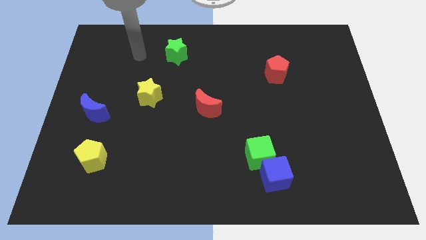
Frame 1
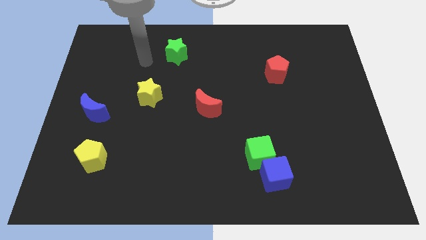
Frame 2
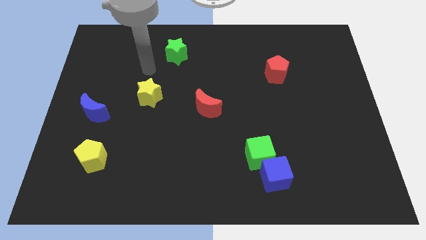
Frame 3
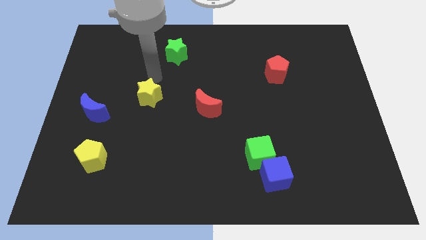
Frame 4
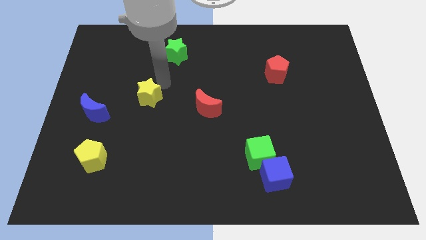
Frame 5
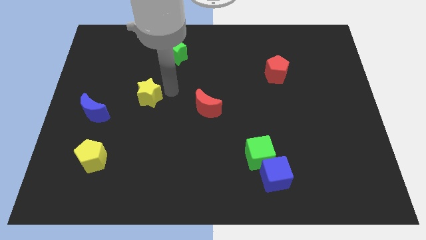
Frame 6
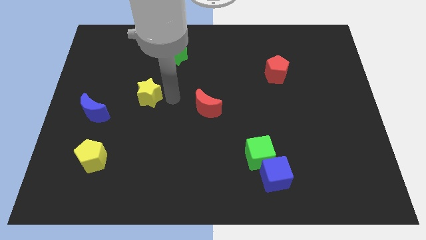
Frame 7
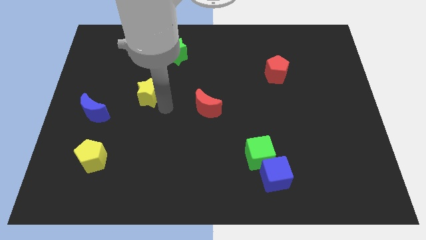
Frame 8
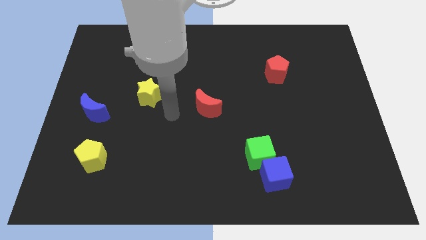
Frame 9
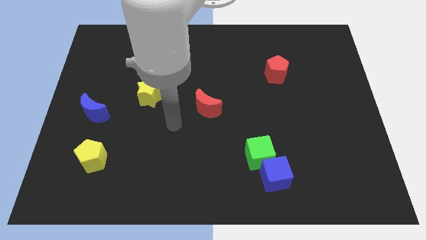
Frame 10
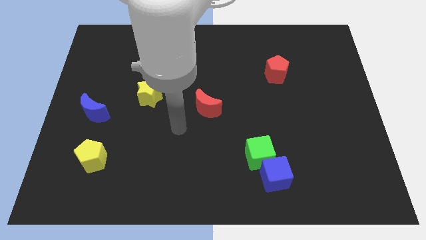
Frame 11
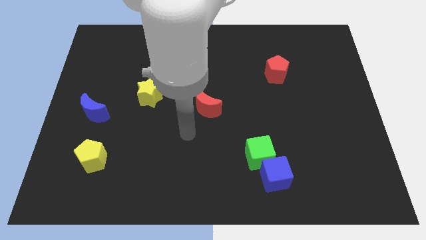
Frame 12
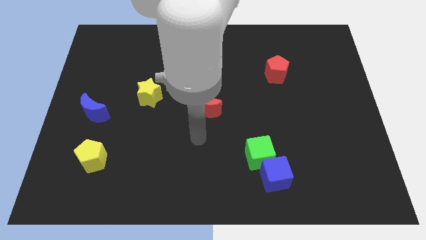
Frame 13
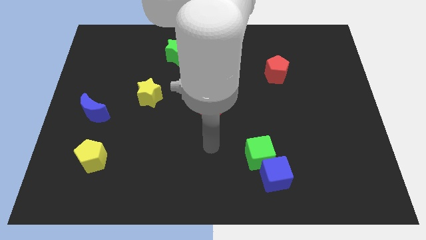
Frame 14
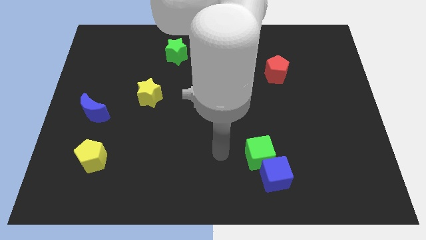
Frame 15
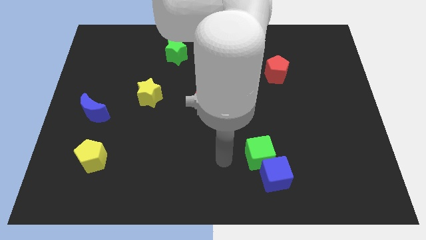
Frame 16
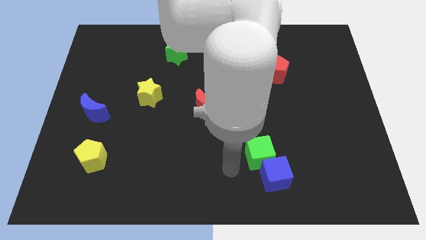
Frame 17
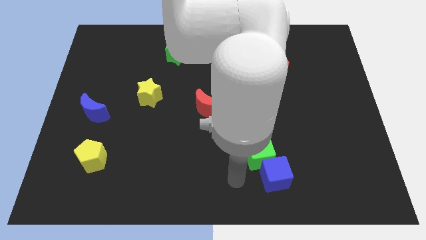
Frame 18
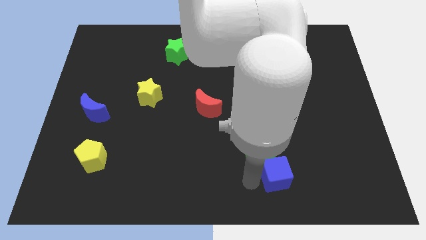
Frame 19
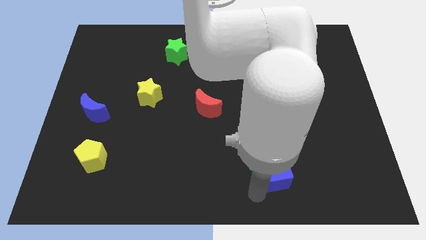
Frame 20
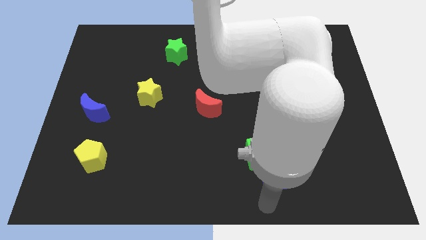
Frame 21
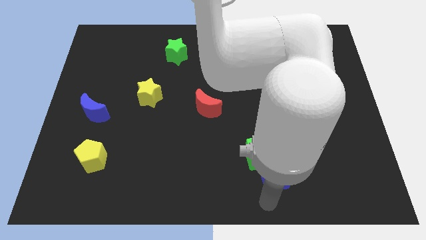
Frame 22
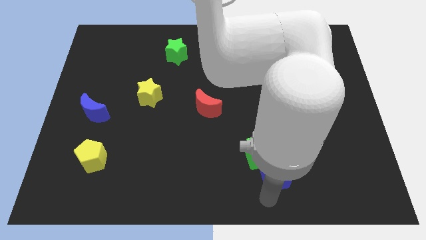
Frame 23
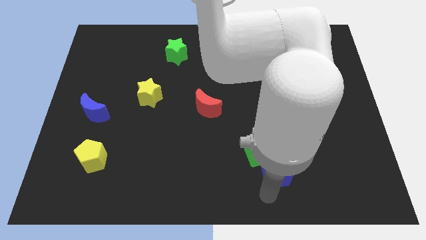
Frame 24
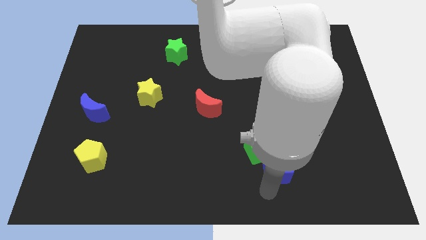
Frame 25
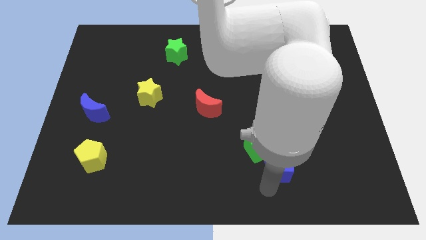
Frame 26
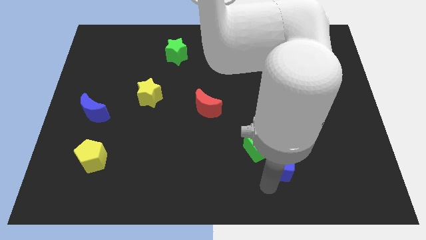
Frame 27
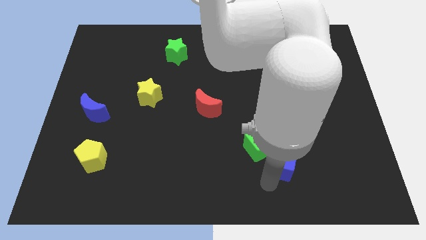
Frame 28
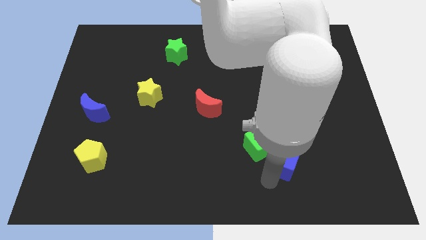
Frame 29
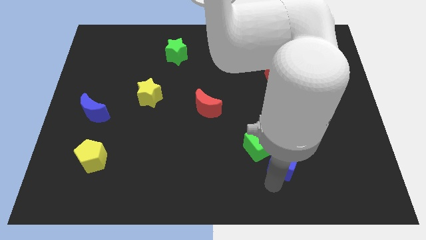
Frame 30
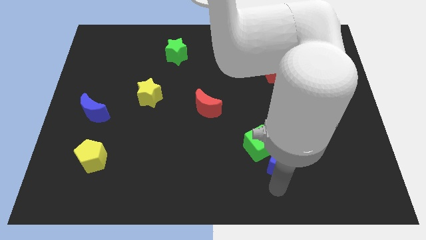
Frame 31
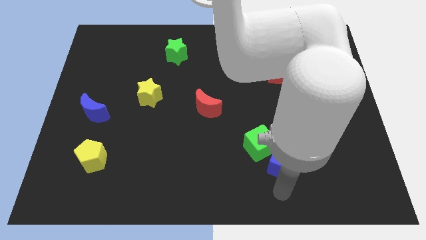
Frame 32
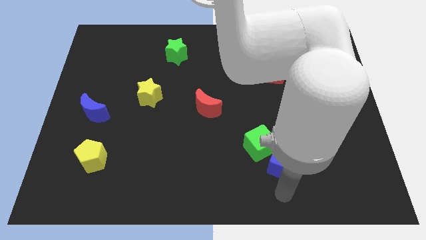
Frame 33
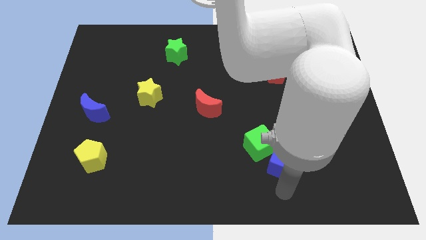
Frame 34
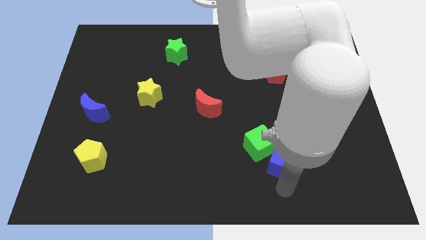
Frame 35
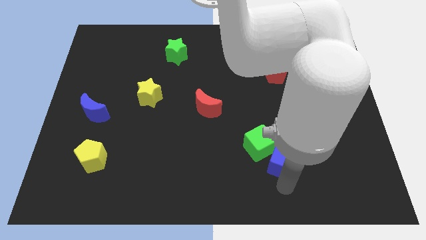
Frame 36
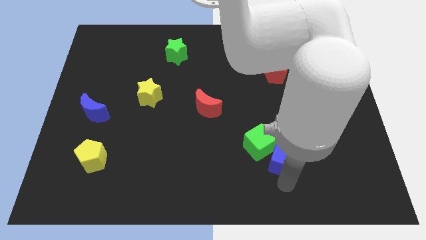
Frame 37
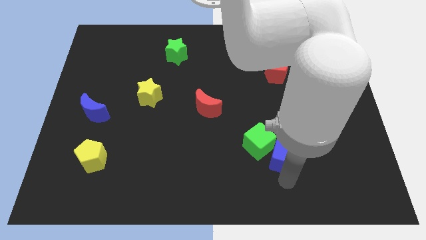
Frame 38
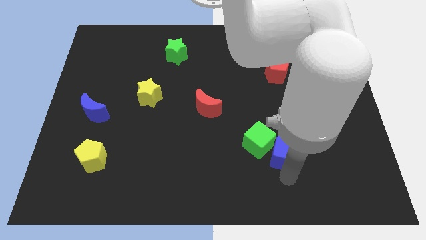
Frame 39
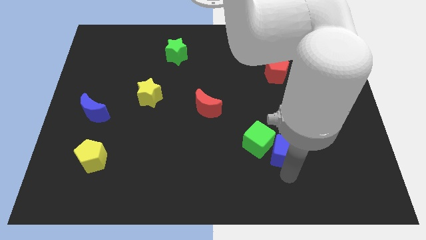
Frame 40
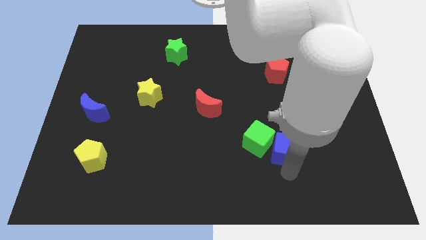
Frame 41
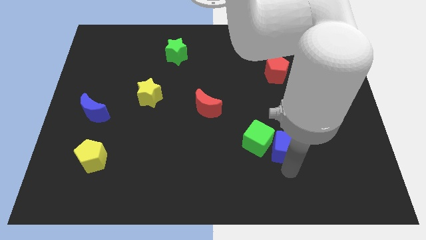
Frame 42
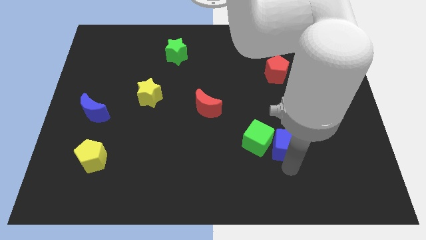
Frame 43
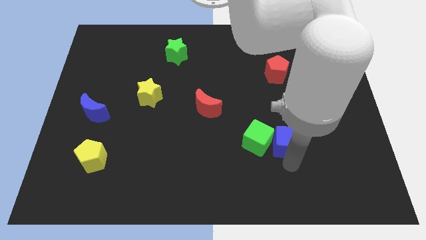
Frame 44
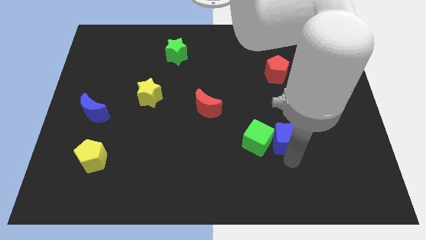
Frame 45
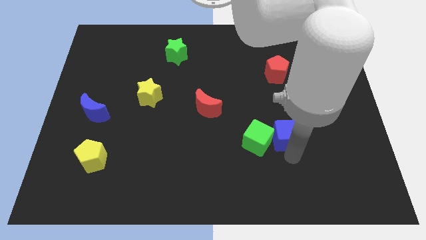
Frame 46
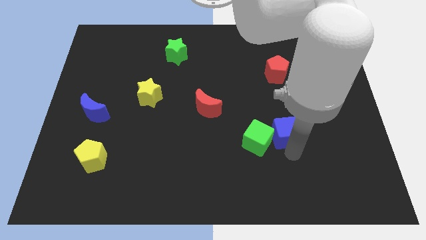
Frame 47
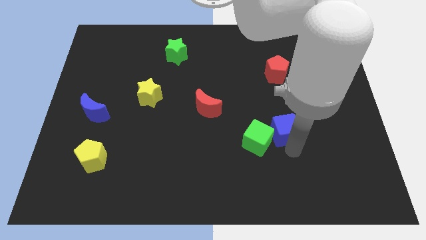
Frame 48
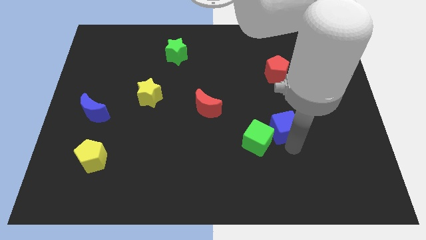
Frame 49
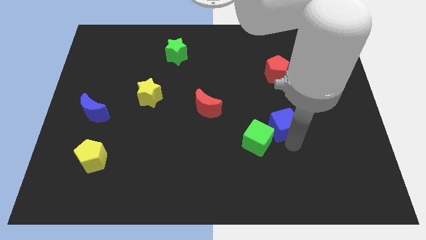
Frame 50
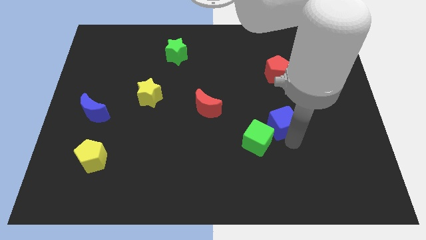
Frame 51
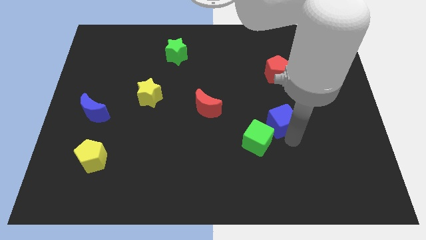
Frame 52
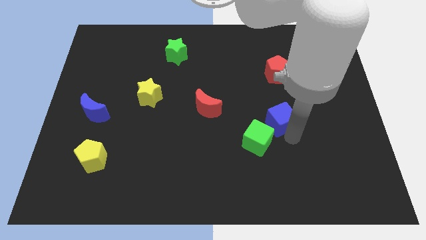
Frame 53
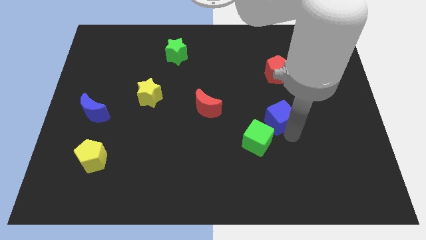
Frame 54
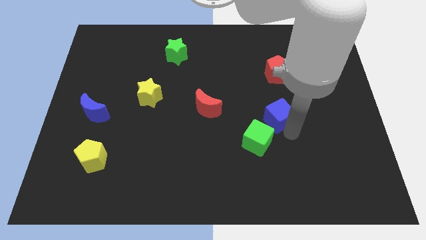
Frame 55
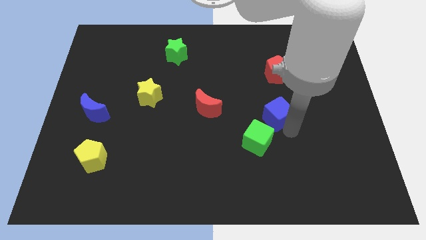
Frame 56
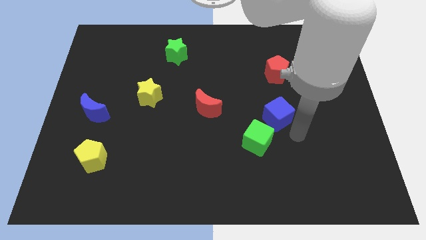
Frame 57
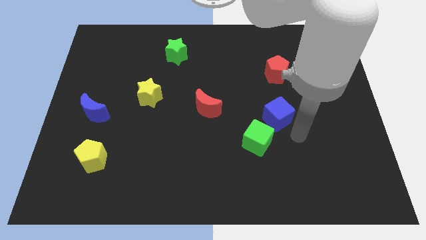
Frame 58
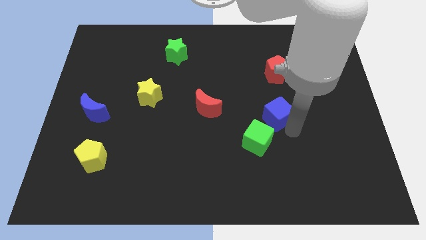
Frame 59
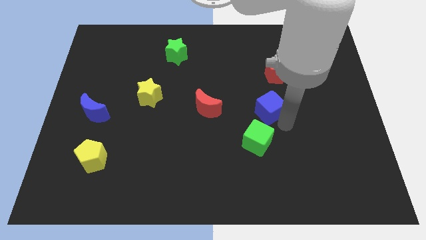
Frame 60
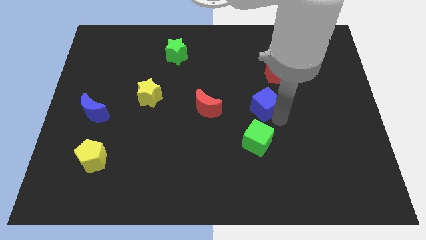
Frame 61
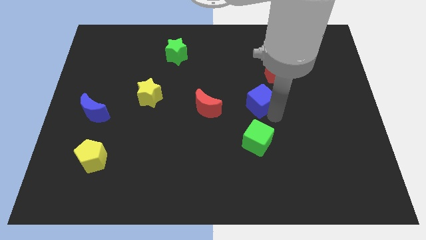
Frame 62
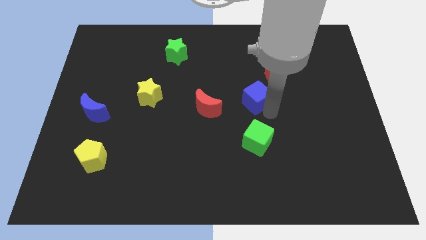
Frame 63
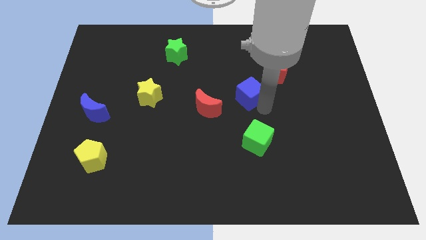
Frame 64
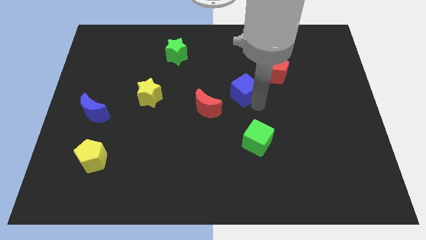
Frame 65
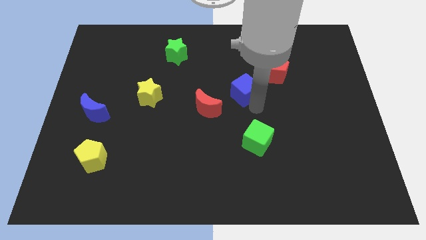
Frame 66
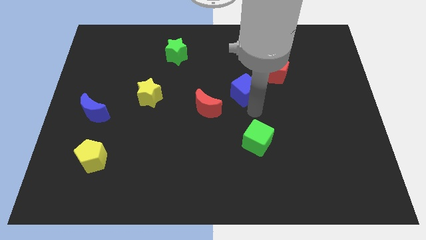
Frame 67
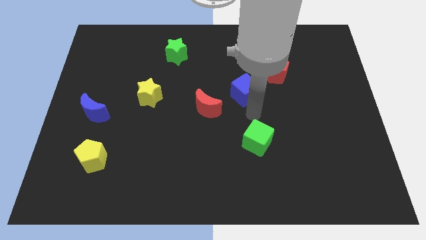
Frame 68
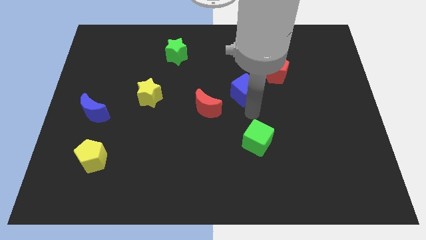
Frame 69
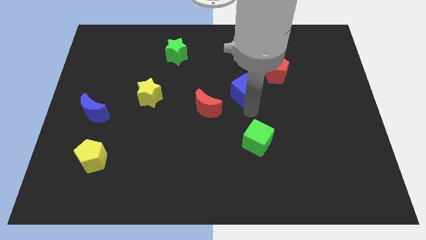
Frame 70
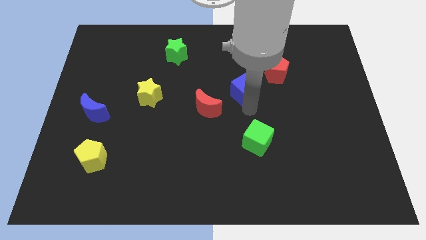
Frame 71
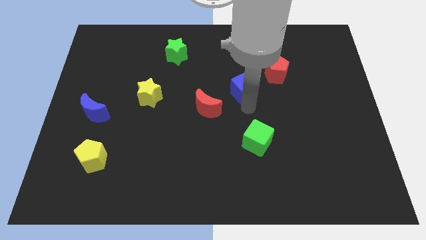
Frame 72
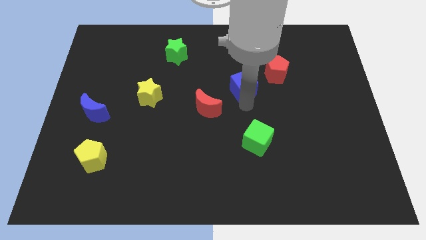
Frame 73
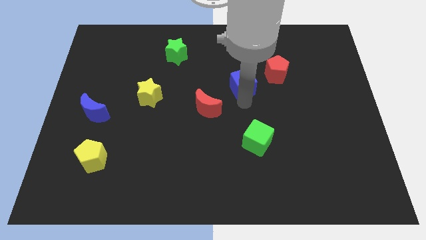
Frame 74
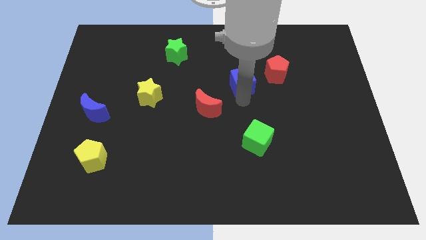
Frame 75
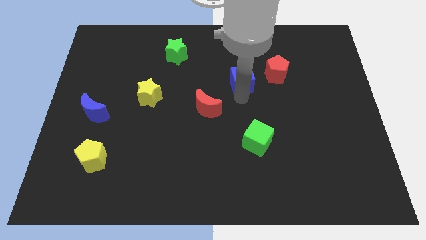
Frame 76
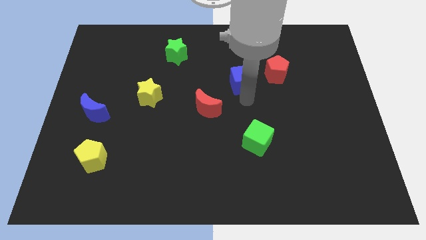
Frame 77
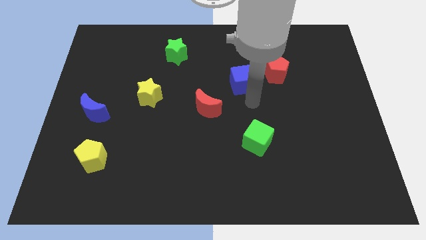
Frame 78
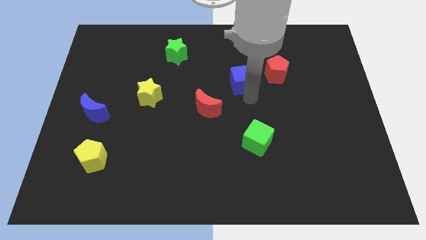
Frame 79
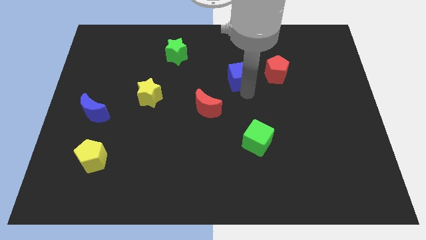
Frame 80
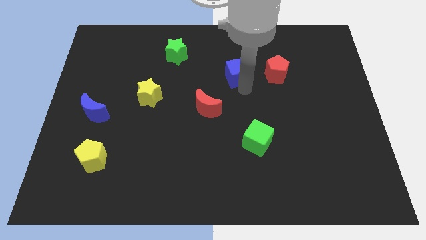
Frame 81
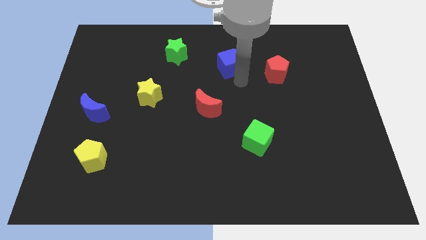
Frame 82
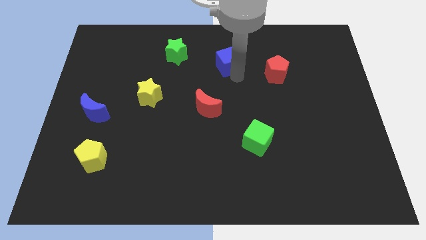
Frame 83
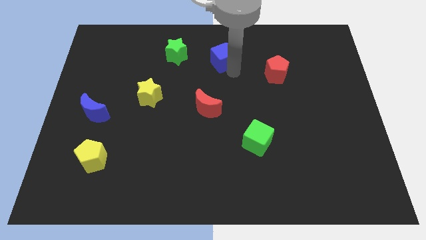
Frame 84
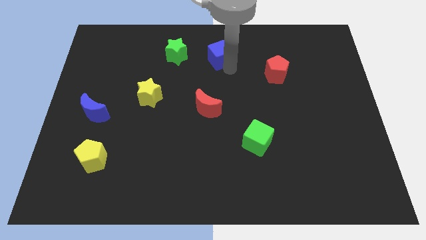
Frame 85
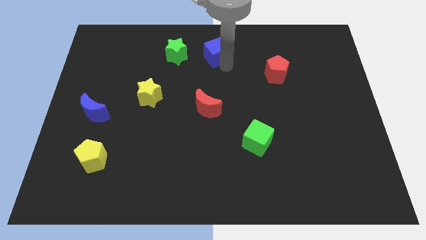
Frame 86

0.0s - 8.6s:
slide the blue cube to the top
